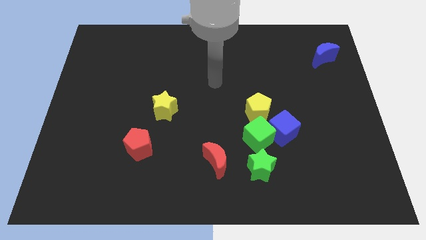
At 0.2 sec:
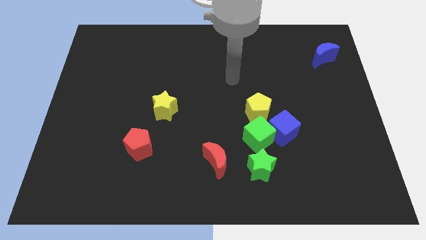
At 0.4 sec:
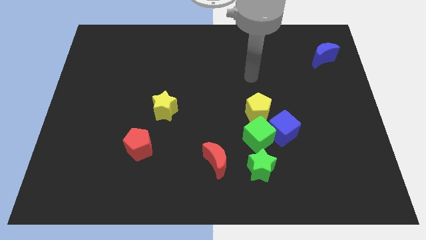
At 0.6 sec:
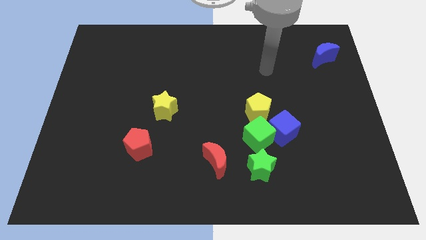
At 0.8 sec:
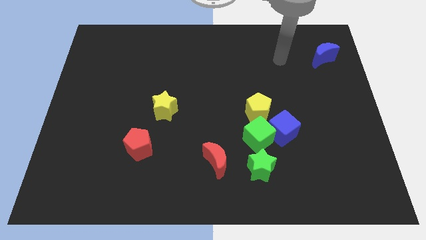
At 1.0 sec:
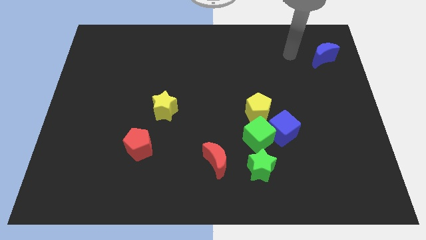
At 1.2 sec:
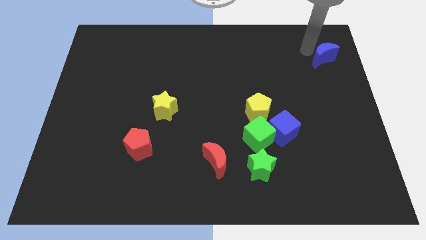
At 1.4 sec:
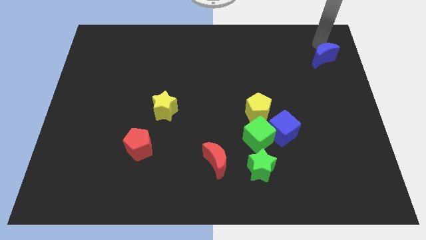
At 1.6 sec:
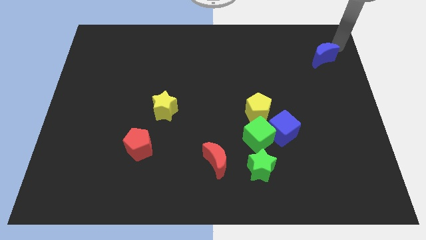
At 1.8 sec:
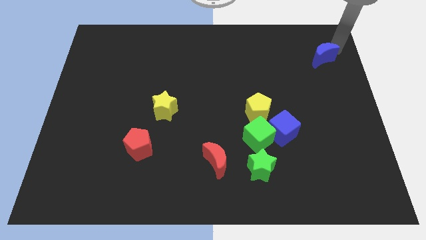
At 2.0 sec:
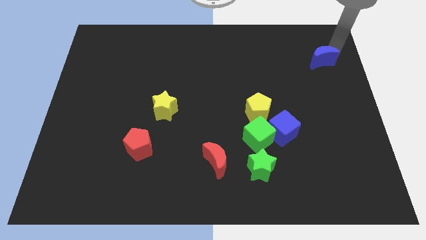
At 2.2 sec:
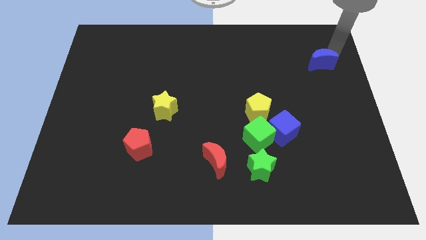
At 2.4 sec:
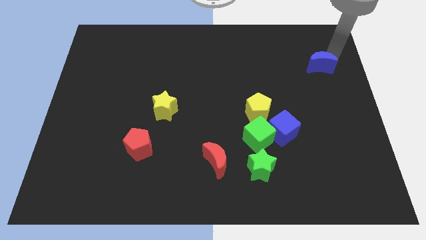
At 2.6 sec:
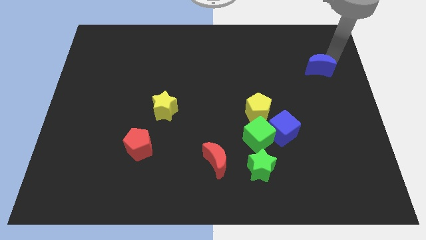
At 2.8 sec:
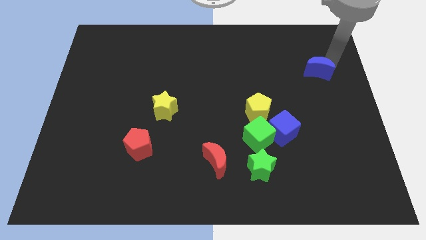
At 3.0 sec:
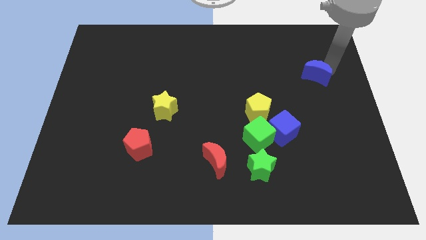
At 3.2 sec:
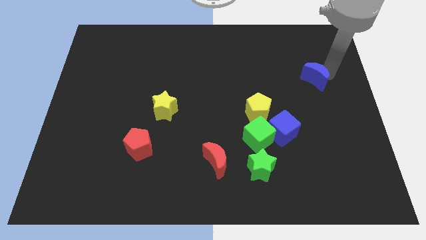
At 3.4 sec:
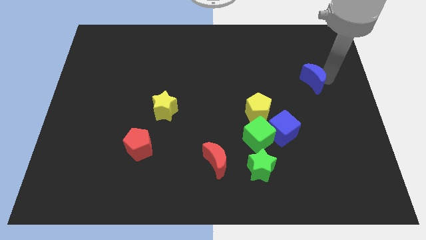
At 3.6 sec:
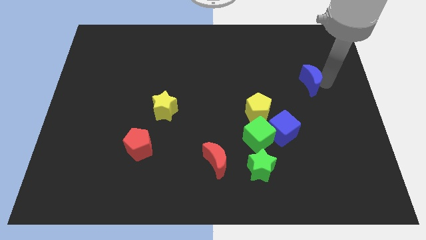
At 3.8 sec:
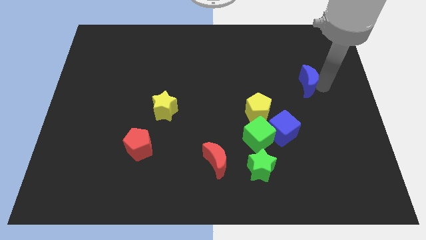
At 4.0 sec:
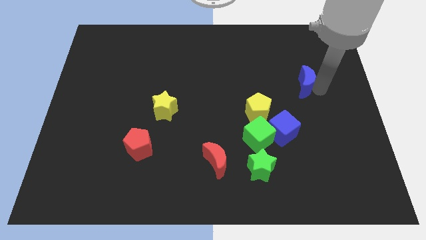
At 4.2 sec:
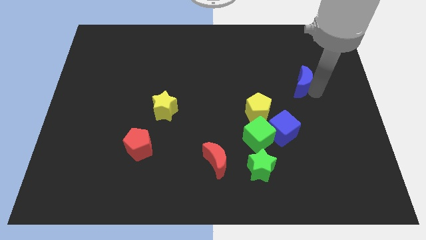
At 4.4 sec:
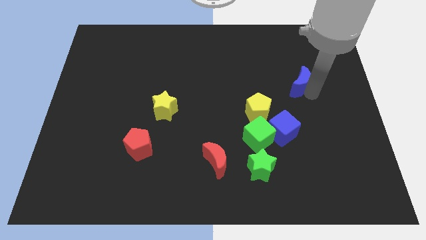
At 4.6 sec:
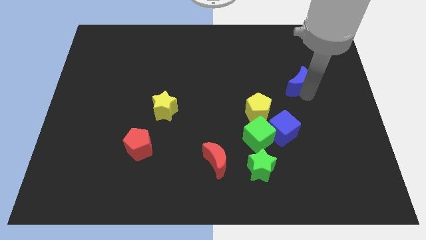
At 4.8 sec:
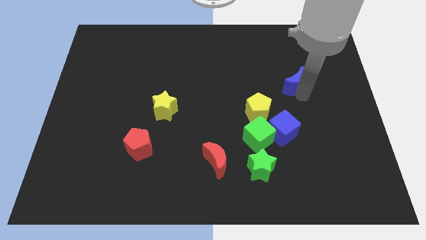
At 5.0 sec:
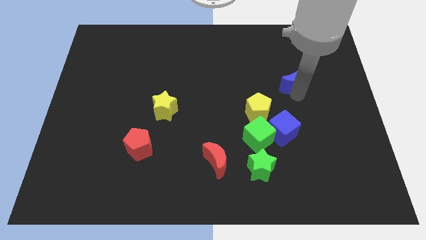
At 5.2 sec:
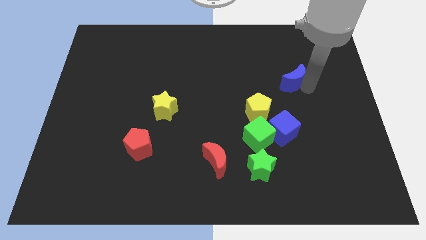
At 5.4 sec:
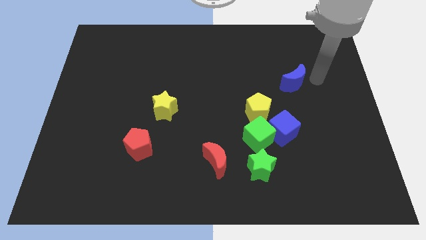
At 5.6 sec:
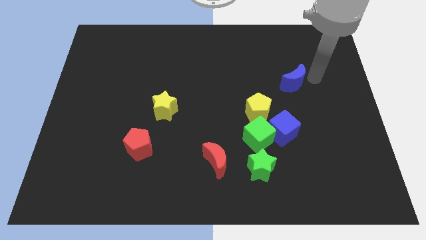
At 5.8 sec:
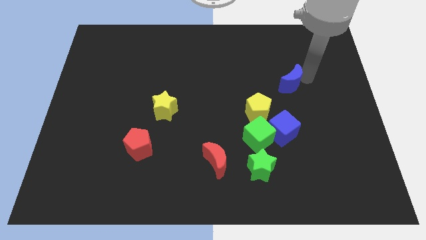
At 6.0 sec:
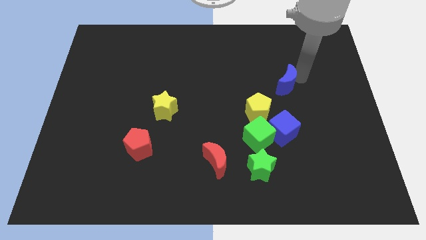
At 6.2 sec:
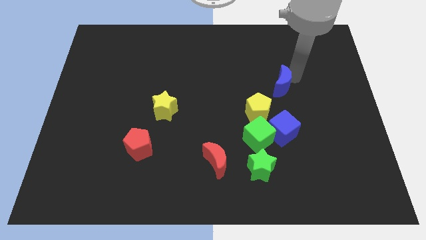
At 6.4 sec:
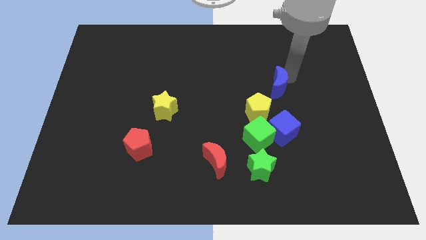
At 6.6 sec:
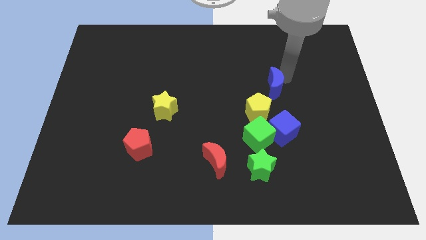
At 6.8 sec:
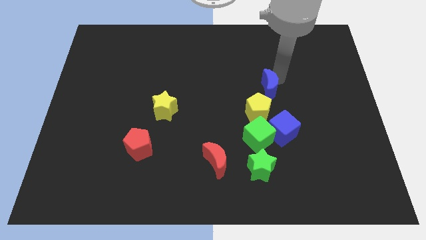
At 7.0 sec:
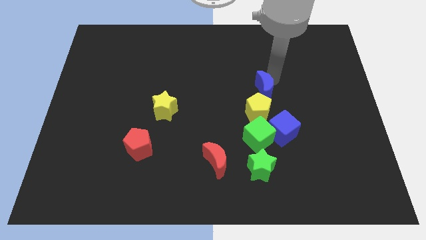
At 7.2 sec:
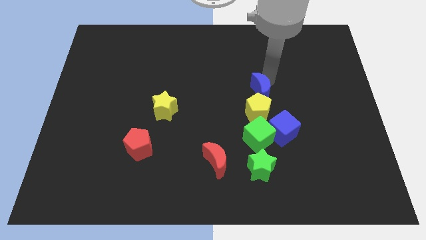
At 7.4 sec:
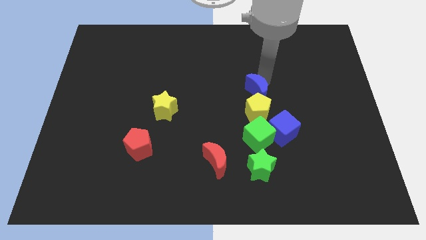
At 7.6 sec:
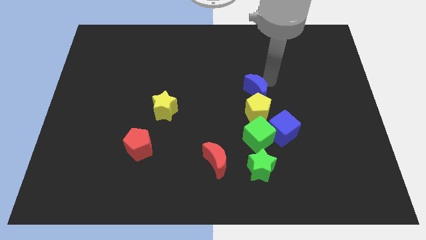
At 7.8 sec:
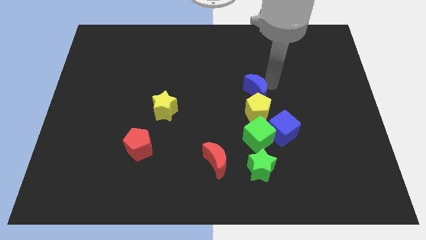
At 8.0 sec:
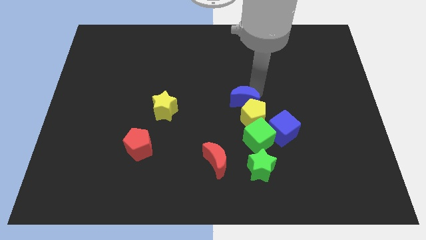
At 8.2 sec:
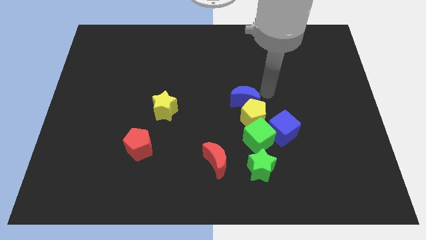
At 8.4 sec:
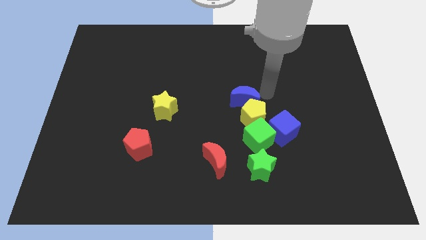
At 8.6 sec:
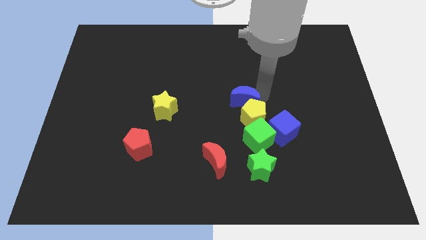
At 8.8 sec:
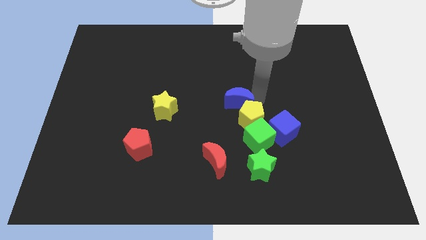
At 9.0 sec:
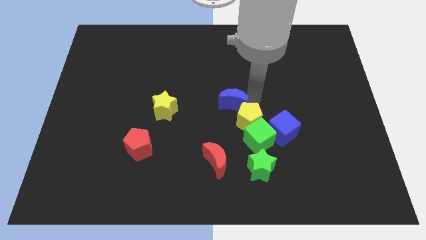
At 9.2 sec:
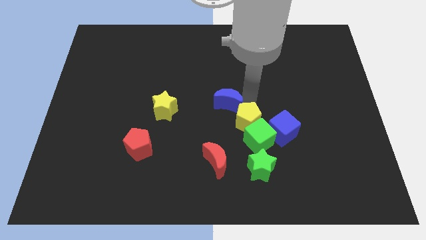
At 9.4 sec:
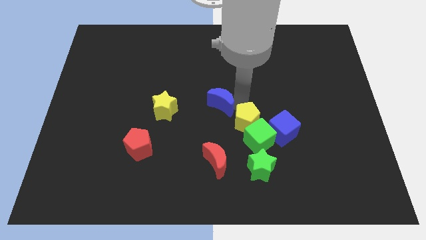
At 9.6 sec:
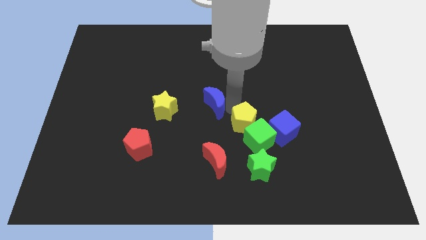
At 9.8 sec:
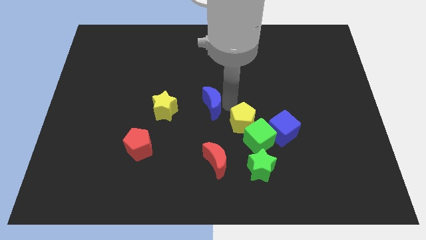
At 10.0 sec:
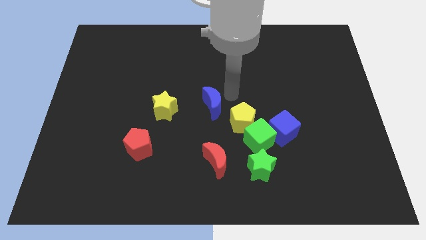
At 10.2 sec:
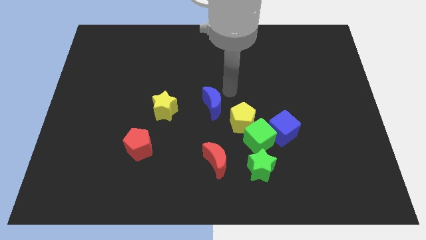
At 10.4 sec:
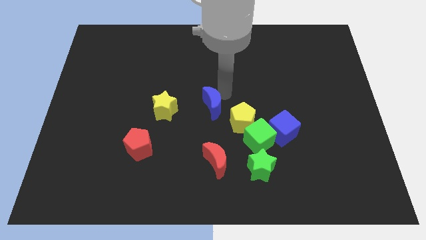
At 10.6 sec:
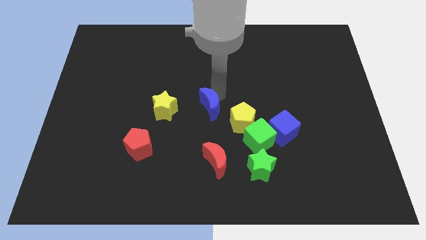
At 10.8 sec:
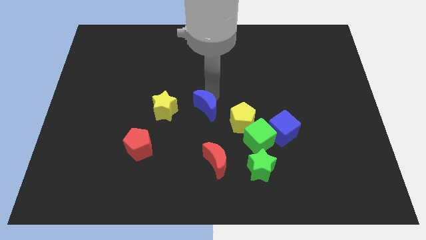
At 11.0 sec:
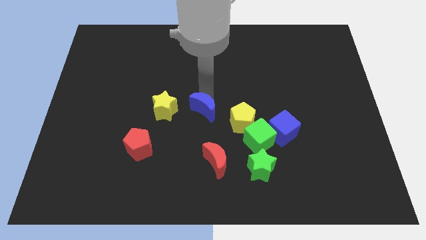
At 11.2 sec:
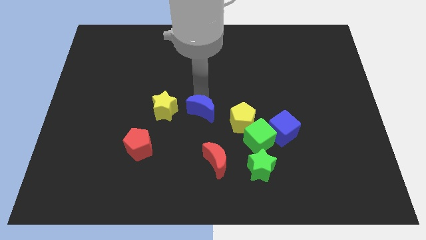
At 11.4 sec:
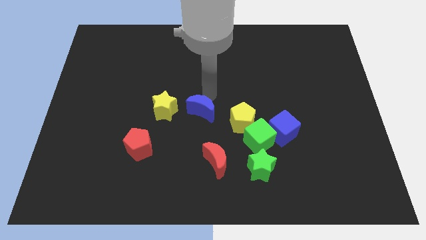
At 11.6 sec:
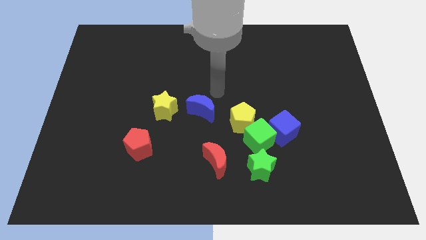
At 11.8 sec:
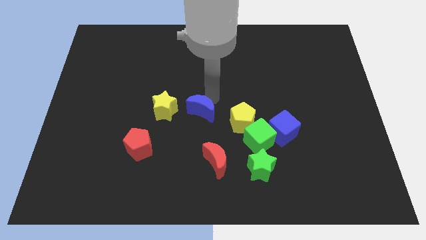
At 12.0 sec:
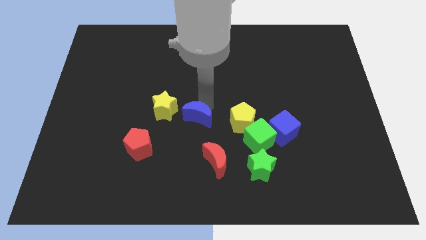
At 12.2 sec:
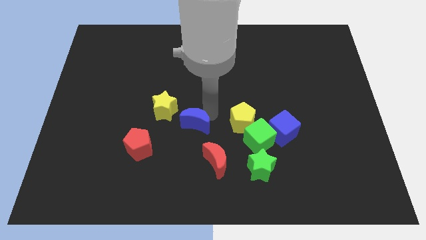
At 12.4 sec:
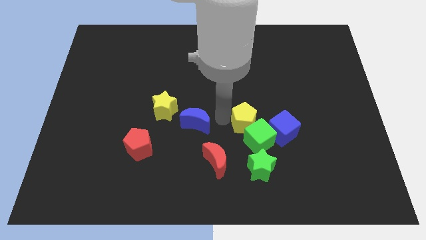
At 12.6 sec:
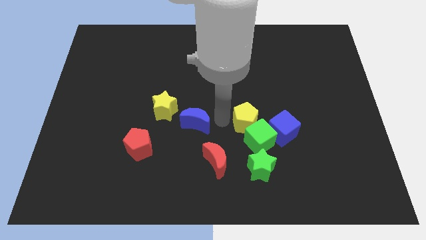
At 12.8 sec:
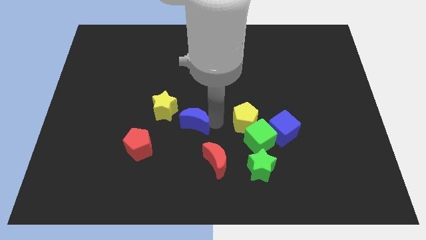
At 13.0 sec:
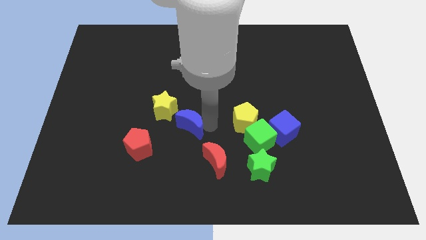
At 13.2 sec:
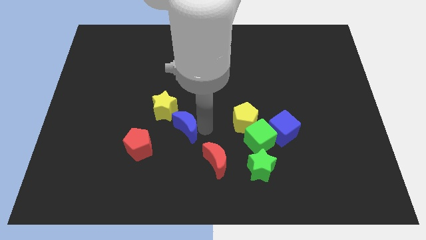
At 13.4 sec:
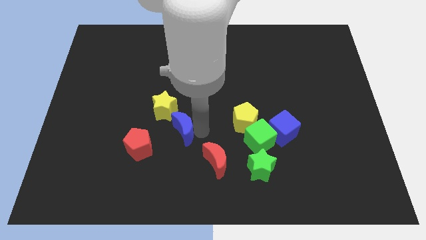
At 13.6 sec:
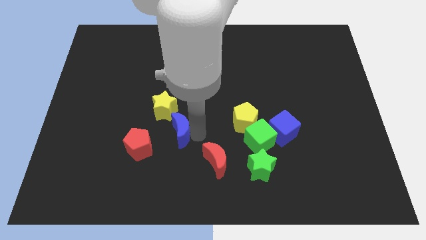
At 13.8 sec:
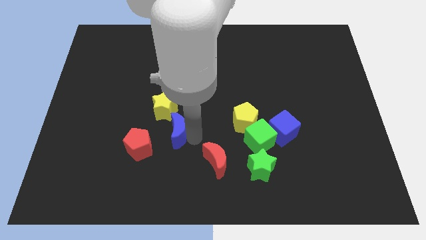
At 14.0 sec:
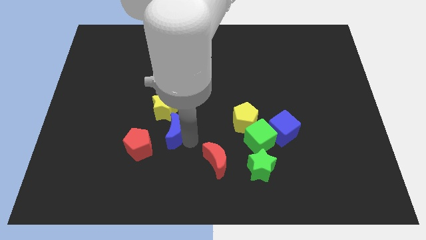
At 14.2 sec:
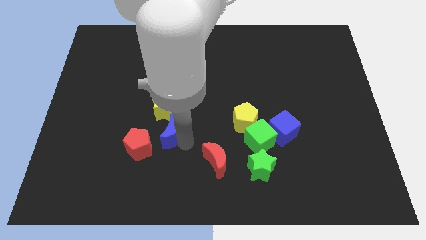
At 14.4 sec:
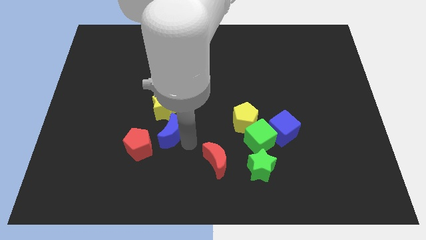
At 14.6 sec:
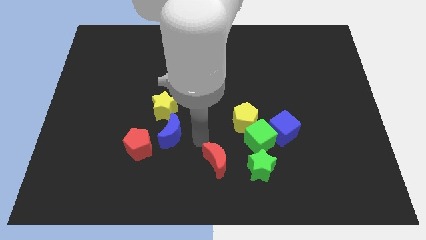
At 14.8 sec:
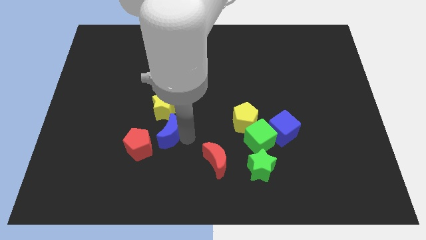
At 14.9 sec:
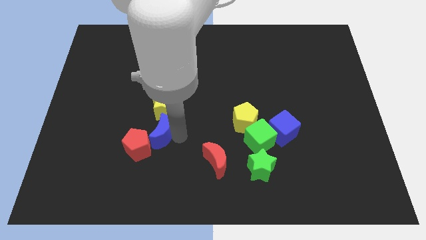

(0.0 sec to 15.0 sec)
slide the blue moon to the bottom left side of the yellow star
